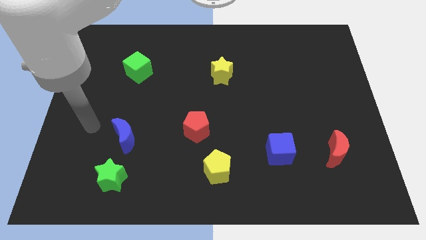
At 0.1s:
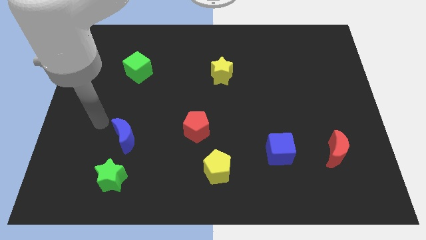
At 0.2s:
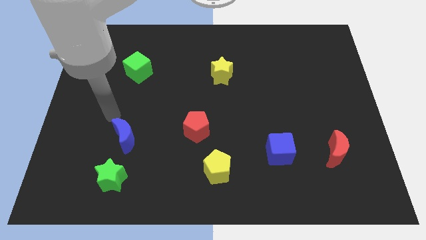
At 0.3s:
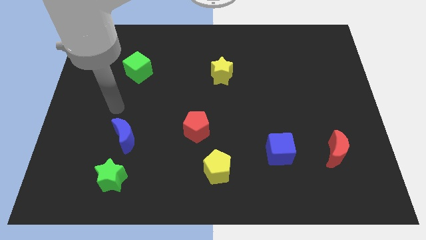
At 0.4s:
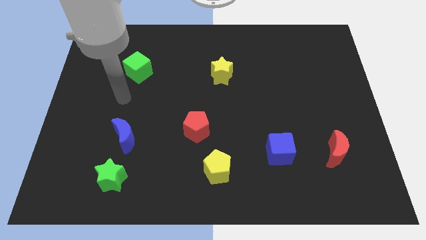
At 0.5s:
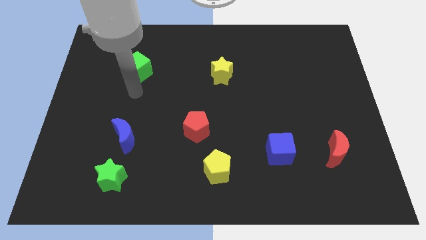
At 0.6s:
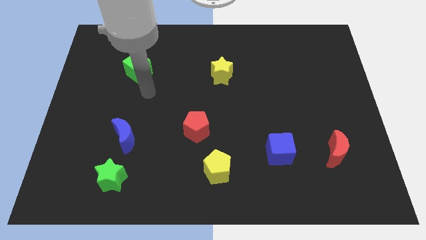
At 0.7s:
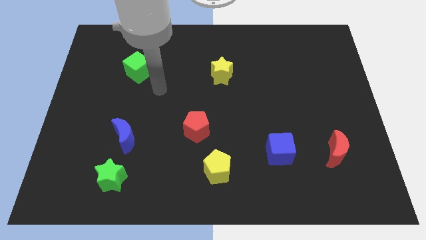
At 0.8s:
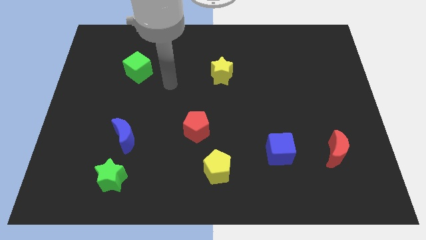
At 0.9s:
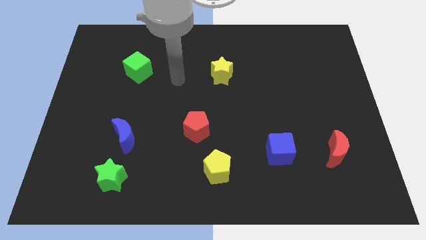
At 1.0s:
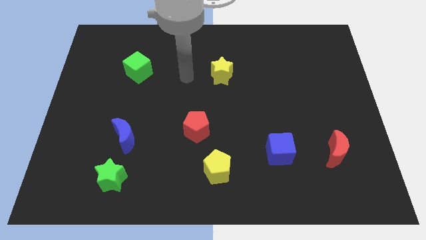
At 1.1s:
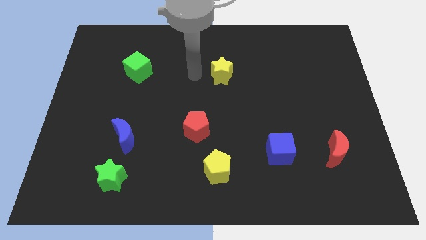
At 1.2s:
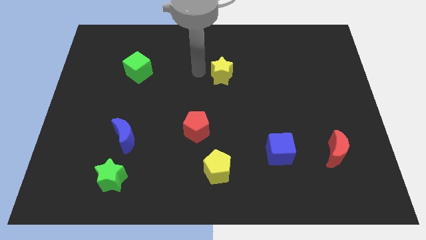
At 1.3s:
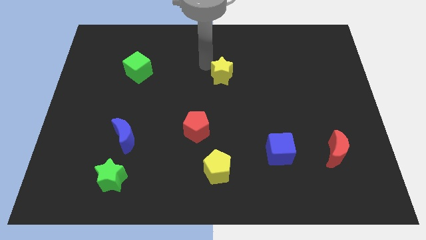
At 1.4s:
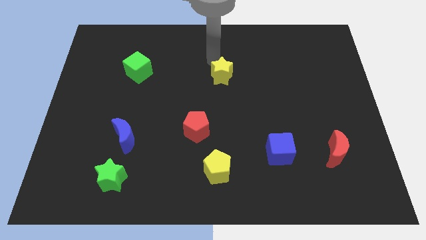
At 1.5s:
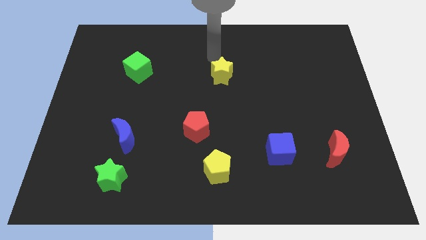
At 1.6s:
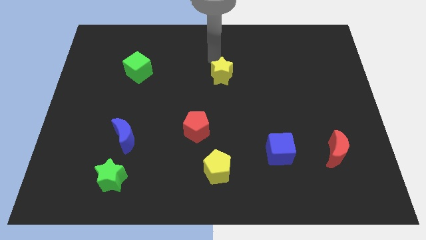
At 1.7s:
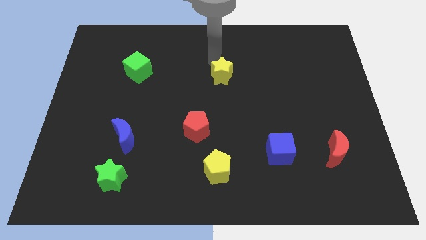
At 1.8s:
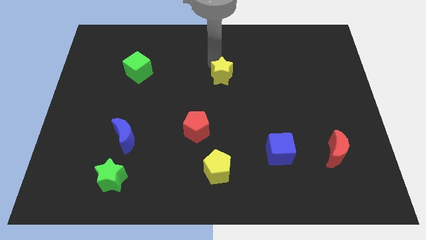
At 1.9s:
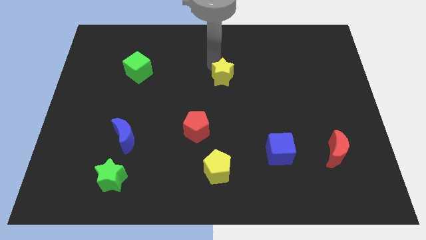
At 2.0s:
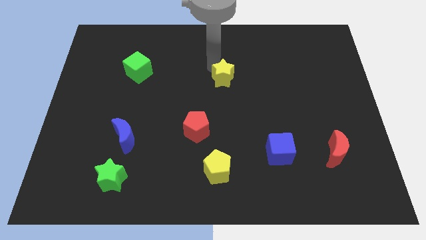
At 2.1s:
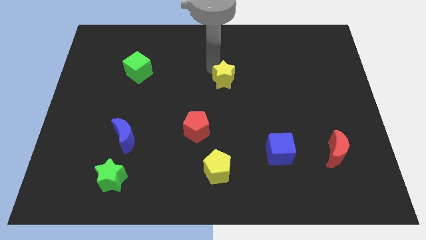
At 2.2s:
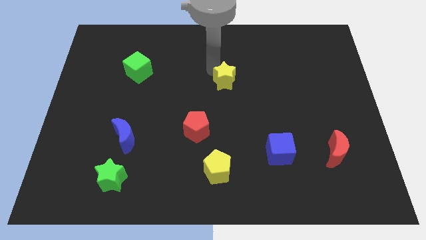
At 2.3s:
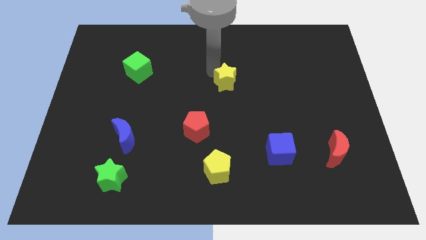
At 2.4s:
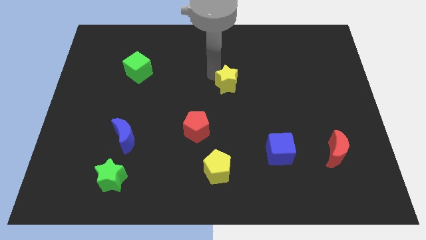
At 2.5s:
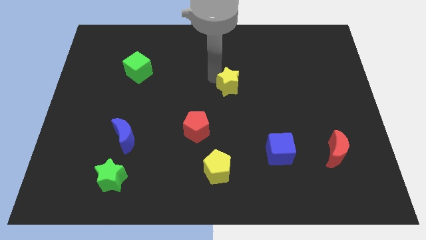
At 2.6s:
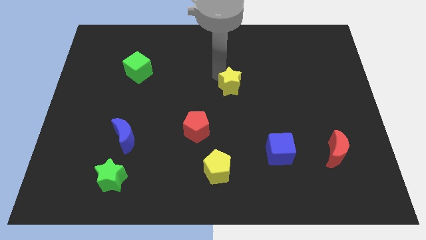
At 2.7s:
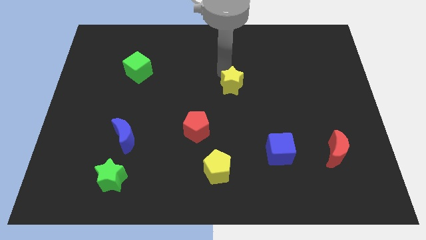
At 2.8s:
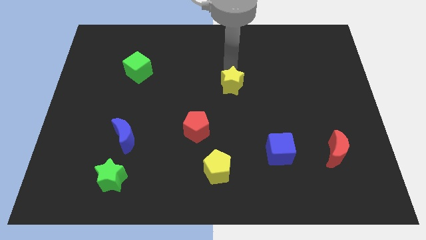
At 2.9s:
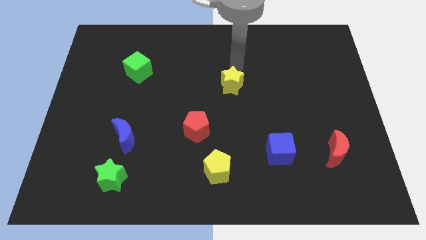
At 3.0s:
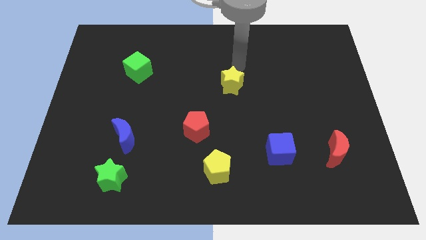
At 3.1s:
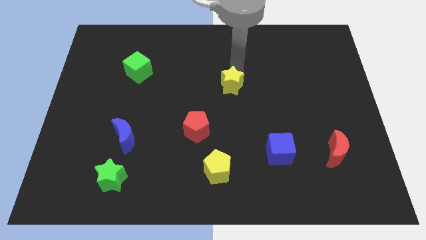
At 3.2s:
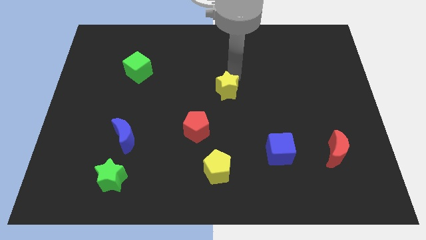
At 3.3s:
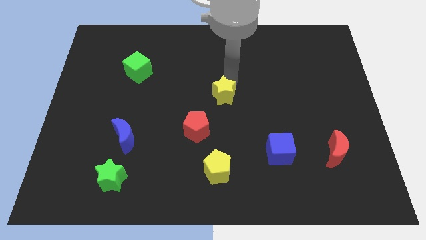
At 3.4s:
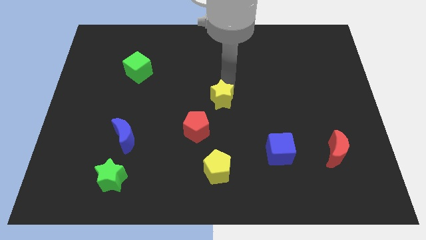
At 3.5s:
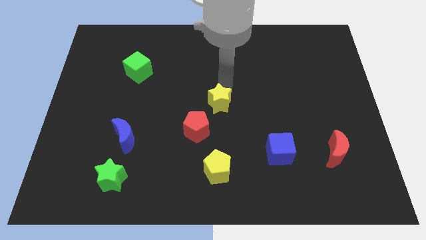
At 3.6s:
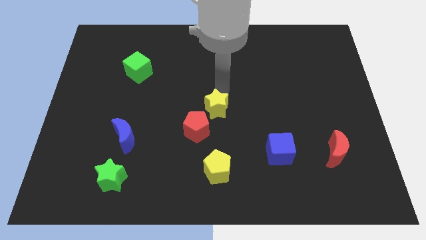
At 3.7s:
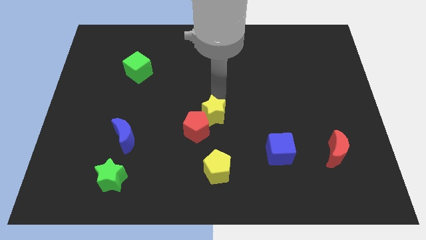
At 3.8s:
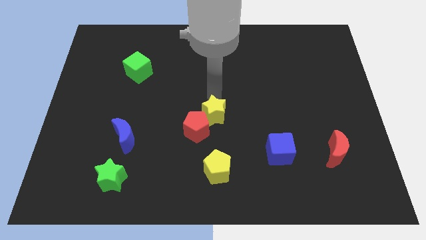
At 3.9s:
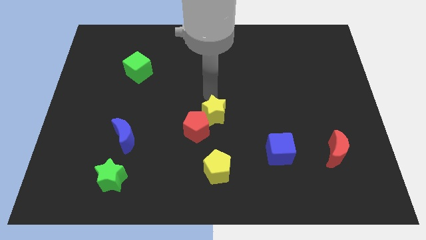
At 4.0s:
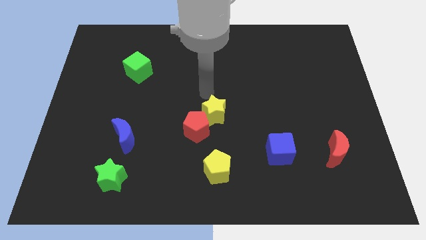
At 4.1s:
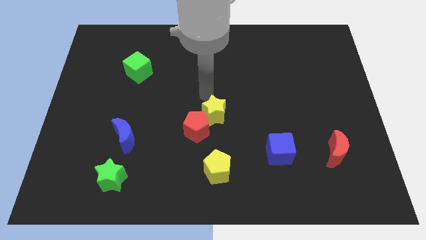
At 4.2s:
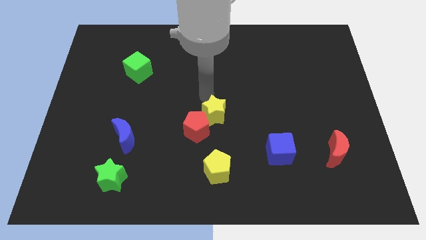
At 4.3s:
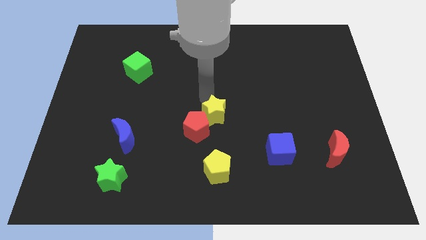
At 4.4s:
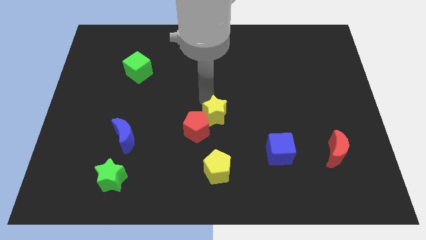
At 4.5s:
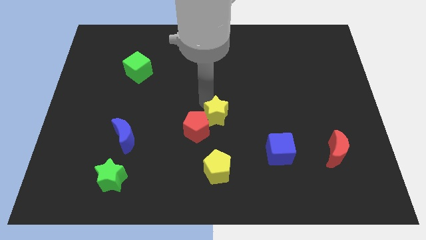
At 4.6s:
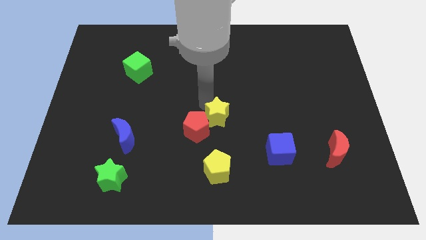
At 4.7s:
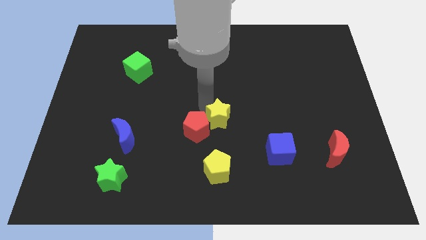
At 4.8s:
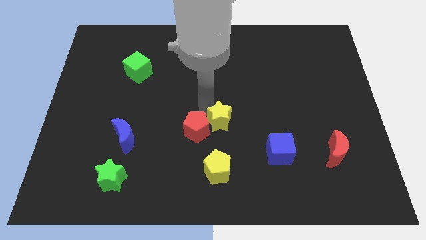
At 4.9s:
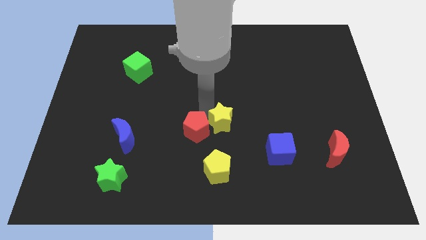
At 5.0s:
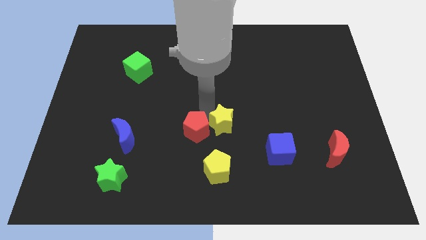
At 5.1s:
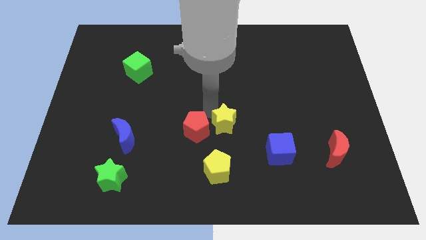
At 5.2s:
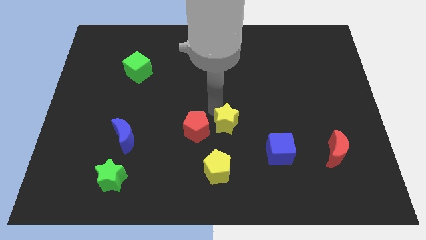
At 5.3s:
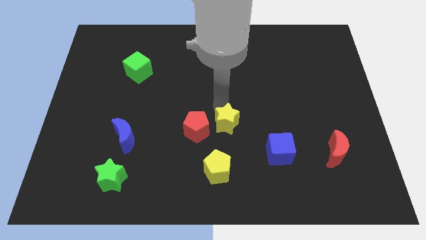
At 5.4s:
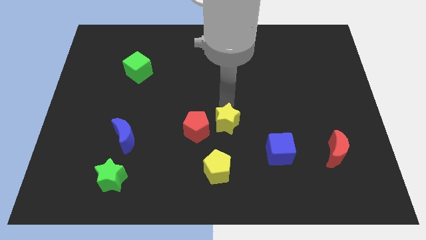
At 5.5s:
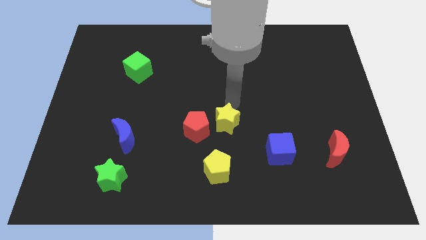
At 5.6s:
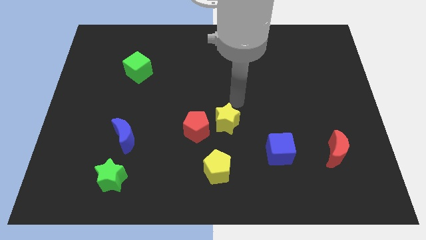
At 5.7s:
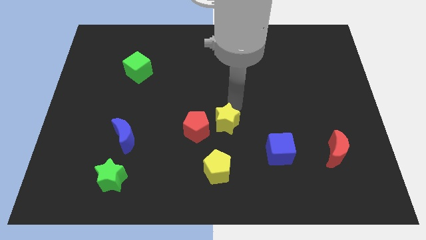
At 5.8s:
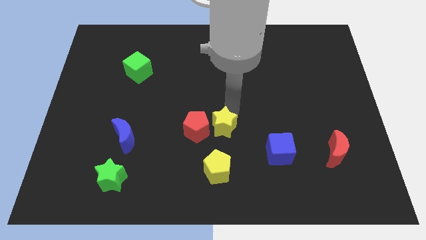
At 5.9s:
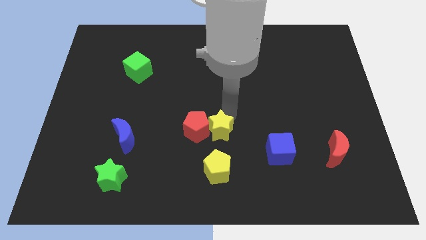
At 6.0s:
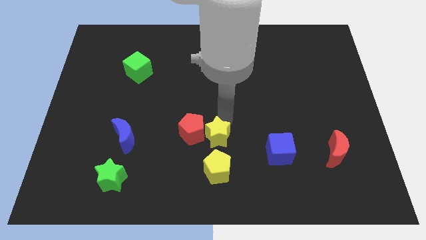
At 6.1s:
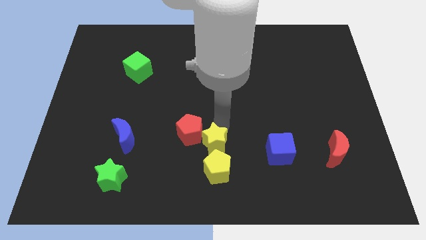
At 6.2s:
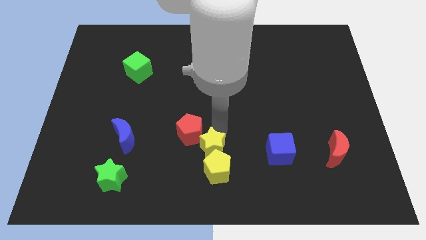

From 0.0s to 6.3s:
slide the yellow star close to the yellow pentagon

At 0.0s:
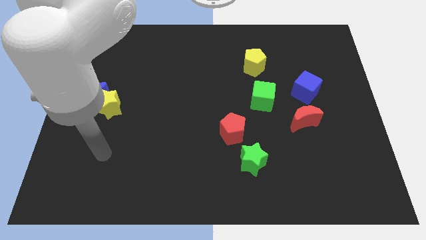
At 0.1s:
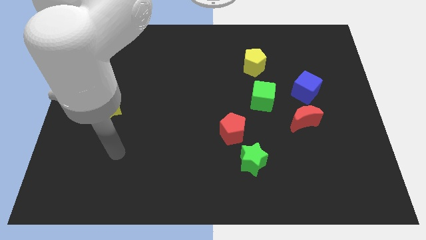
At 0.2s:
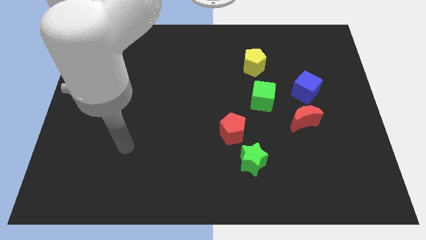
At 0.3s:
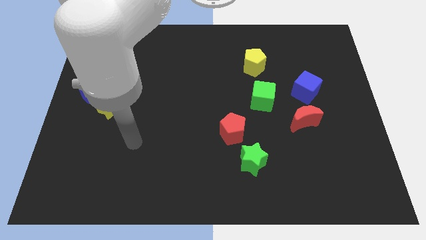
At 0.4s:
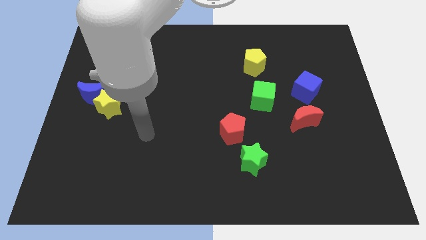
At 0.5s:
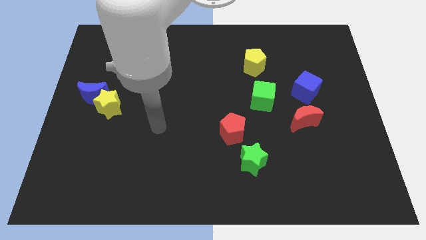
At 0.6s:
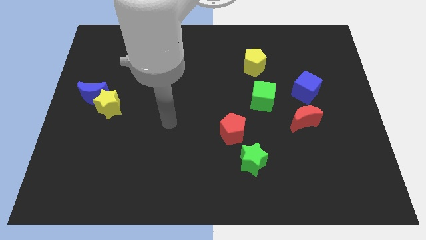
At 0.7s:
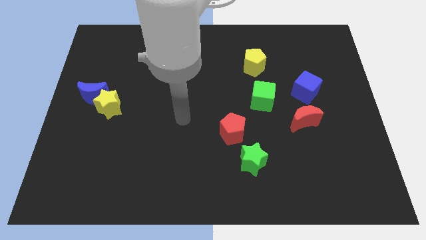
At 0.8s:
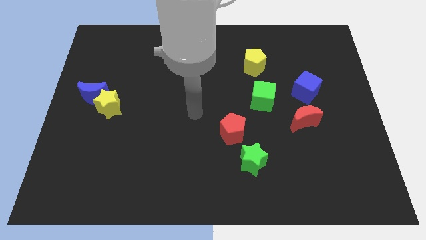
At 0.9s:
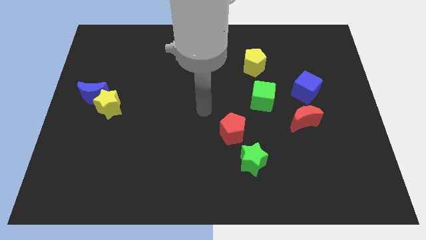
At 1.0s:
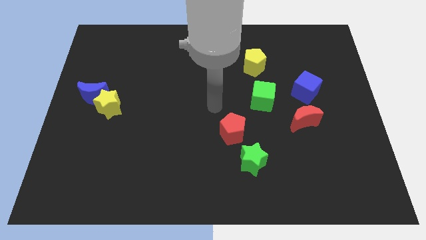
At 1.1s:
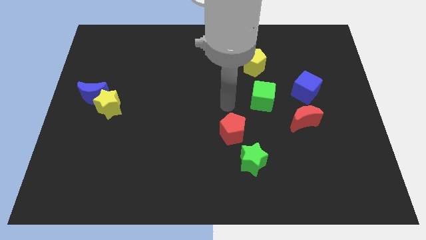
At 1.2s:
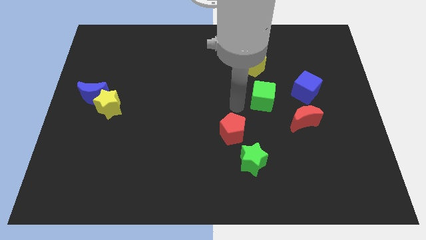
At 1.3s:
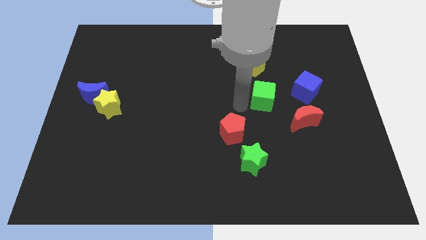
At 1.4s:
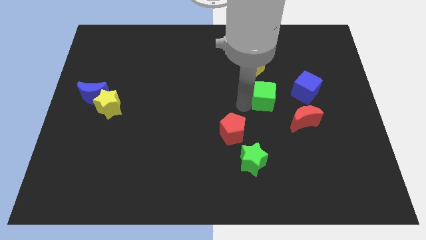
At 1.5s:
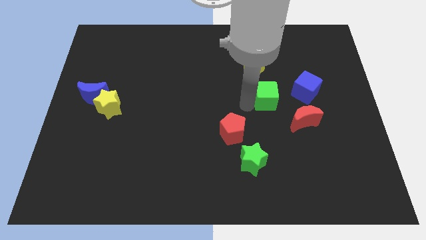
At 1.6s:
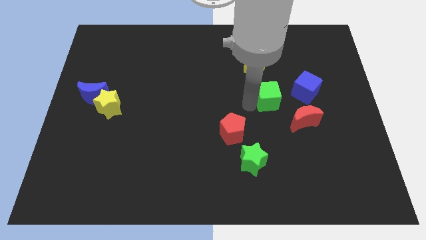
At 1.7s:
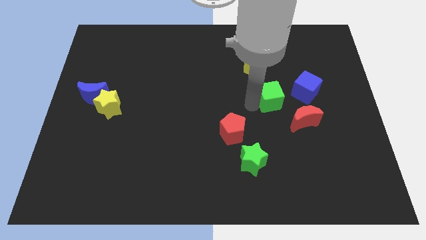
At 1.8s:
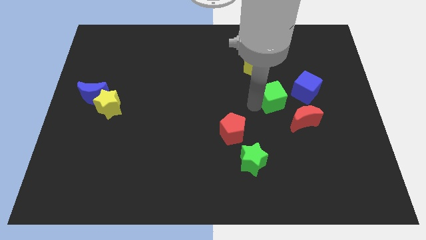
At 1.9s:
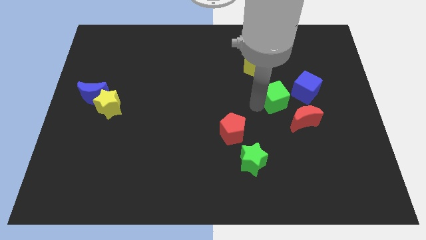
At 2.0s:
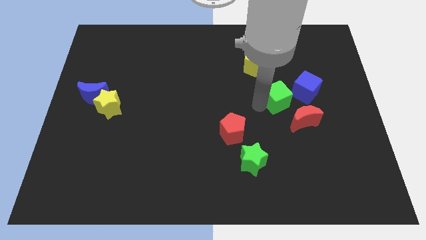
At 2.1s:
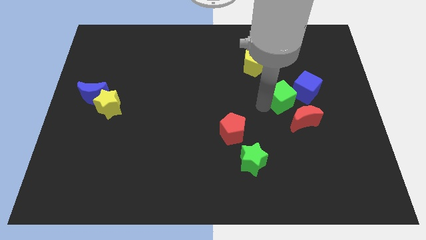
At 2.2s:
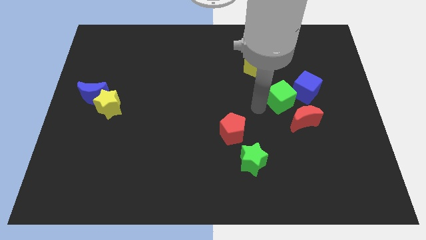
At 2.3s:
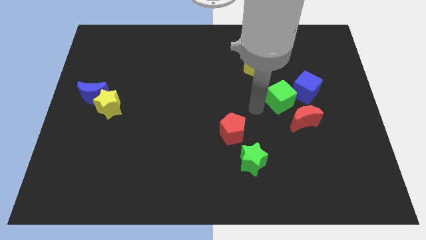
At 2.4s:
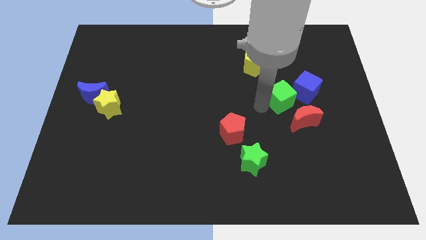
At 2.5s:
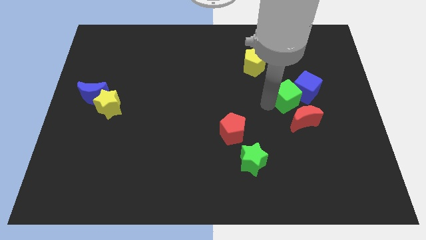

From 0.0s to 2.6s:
move the green cube to the blue cube
